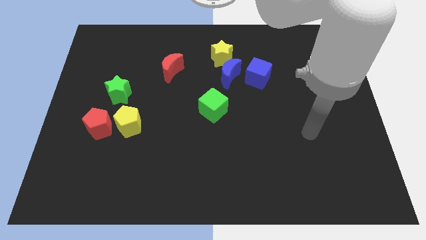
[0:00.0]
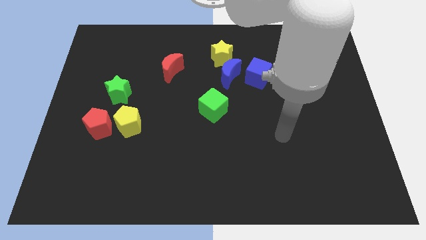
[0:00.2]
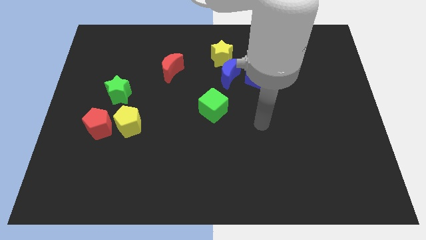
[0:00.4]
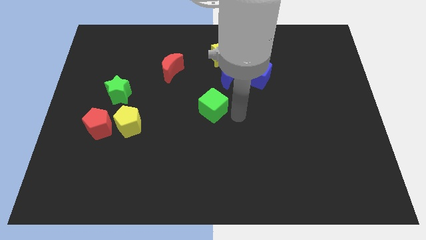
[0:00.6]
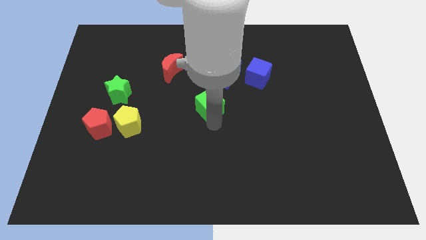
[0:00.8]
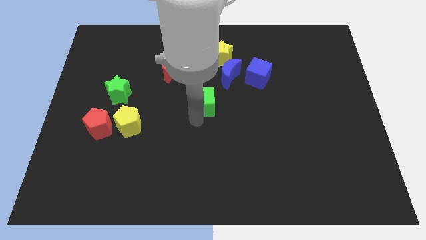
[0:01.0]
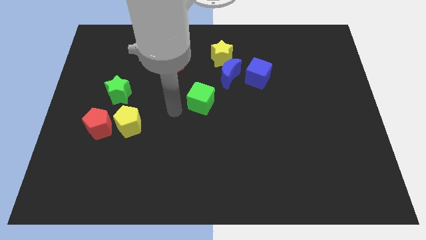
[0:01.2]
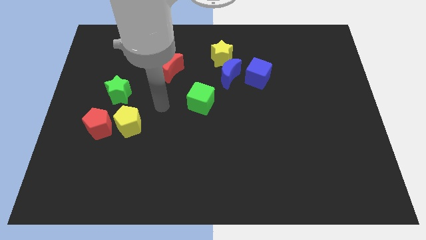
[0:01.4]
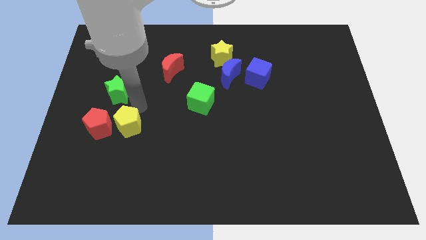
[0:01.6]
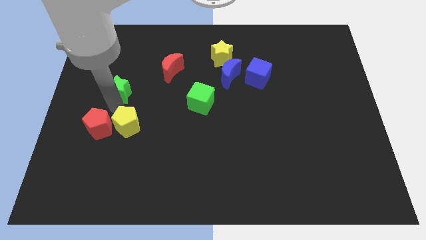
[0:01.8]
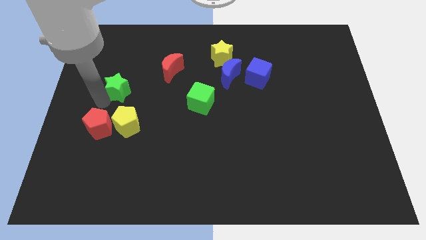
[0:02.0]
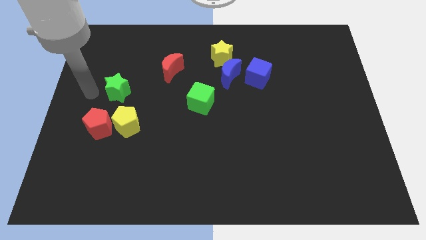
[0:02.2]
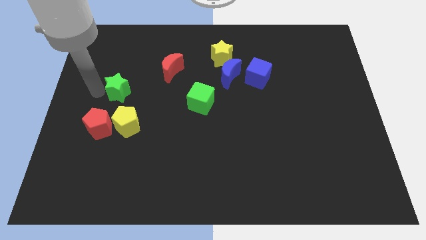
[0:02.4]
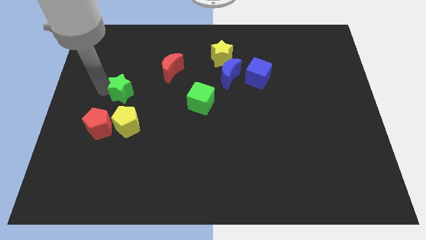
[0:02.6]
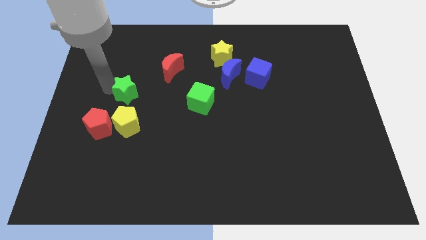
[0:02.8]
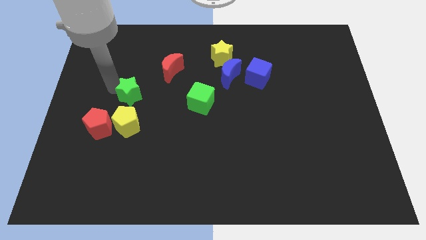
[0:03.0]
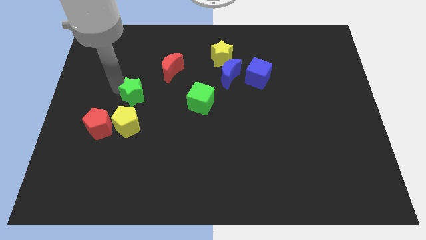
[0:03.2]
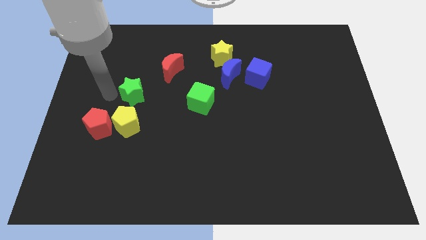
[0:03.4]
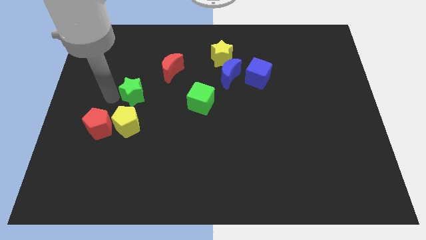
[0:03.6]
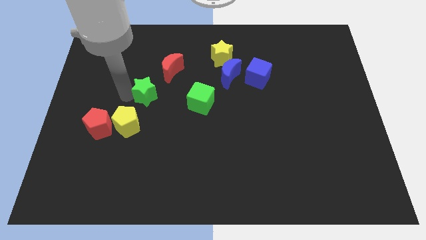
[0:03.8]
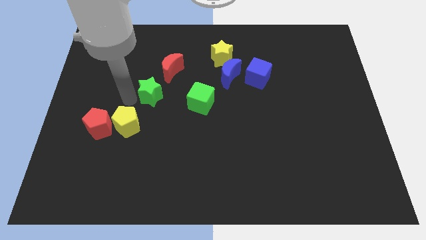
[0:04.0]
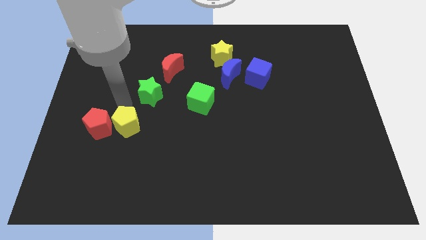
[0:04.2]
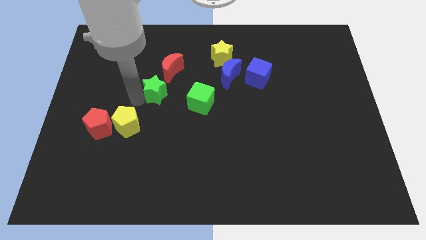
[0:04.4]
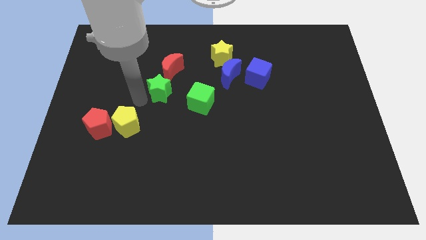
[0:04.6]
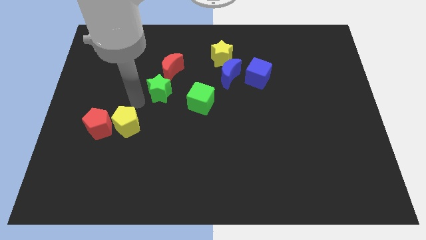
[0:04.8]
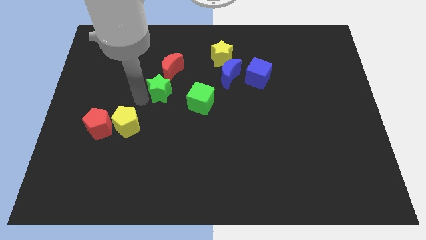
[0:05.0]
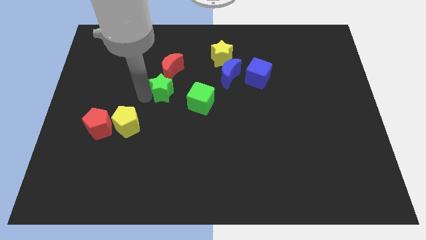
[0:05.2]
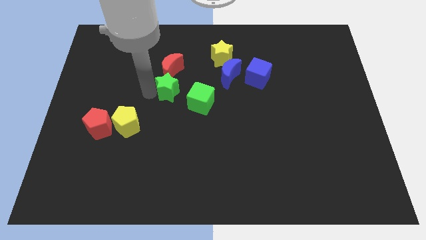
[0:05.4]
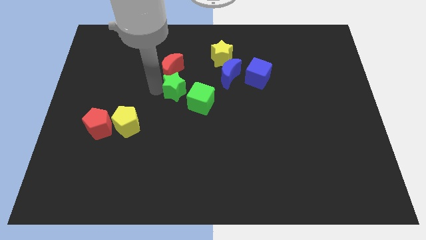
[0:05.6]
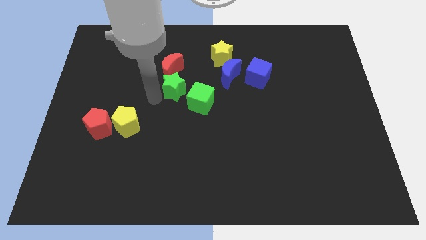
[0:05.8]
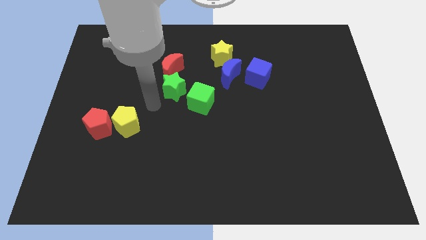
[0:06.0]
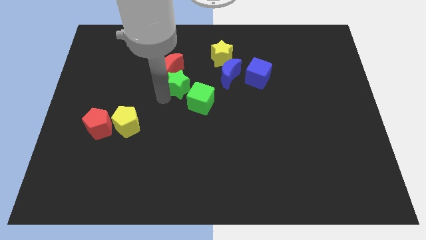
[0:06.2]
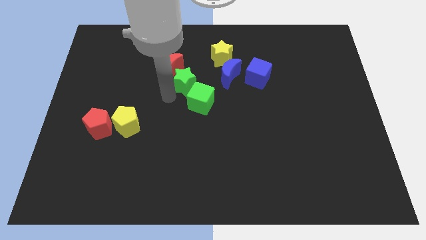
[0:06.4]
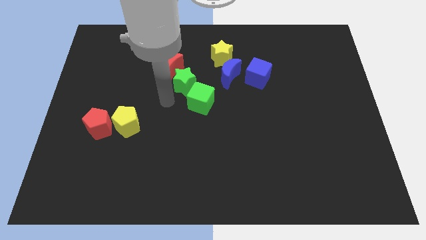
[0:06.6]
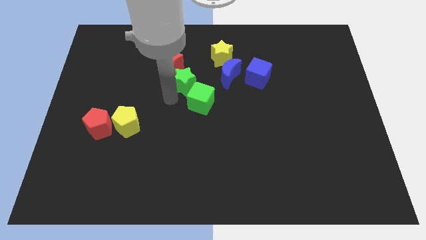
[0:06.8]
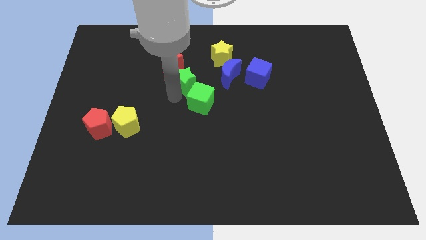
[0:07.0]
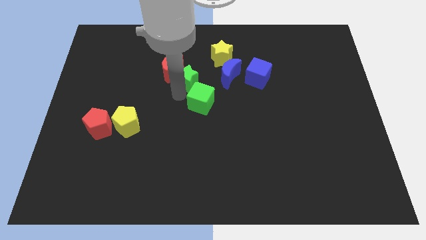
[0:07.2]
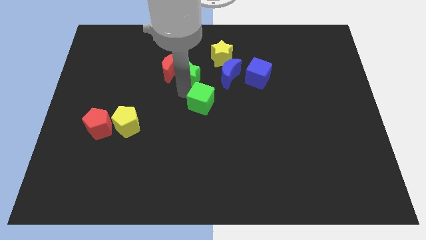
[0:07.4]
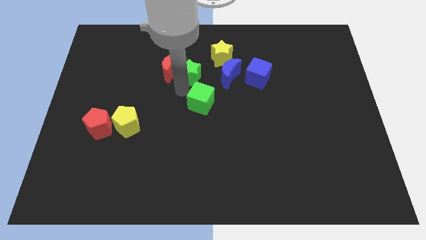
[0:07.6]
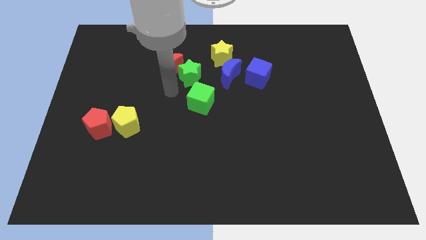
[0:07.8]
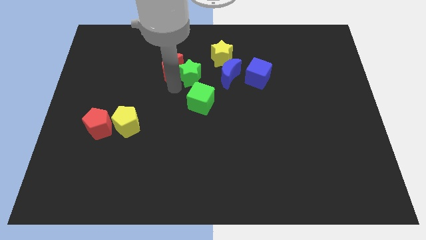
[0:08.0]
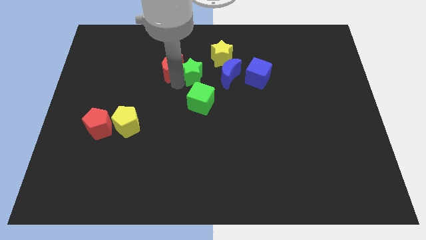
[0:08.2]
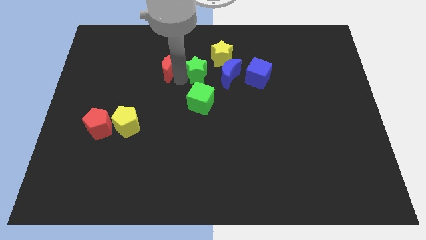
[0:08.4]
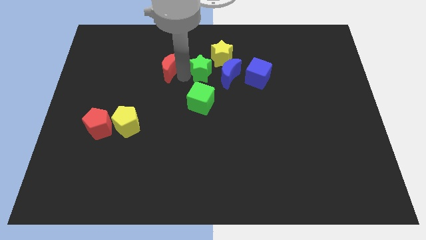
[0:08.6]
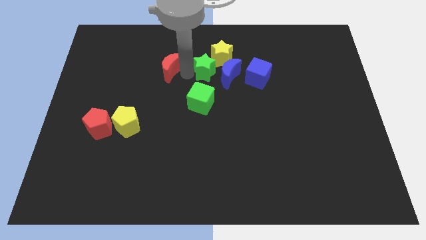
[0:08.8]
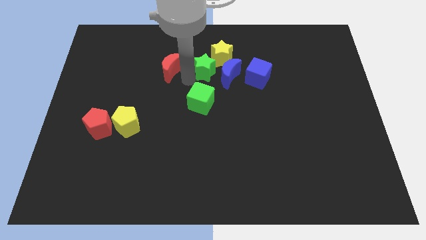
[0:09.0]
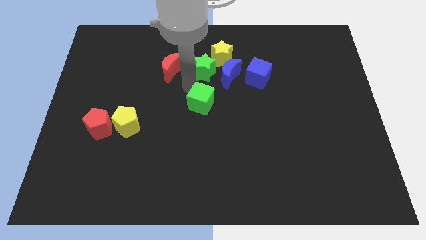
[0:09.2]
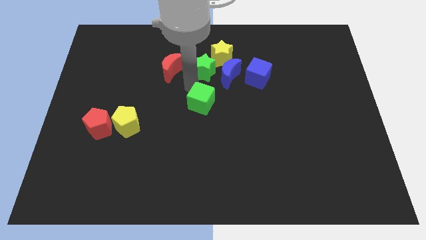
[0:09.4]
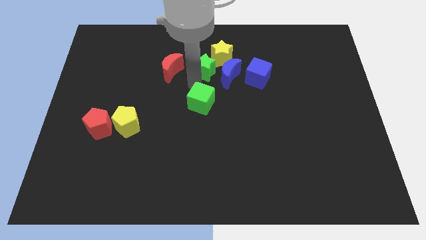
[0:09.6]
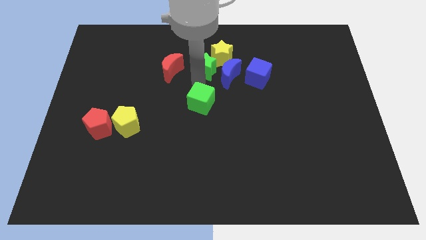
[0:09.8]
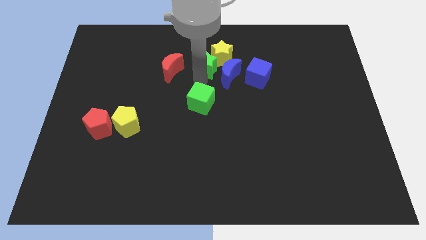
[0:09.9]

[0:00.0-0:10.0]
move the green star close to the yellow star

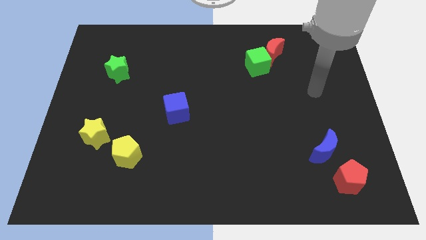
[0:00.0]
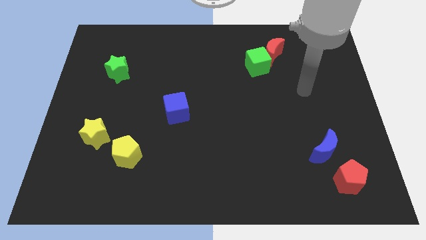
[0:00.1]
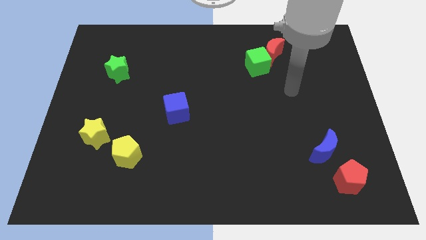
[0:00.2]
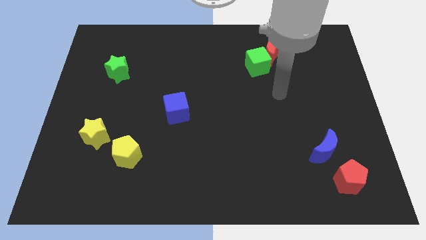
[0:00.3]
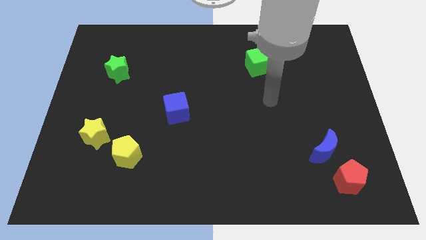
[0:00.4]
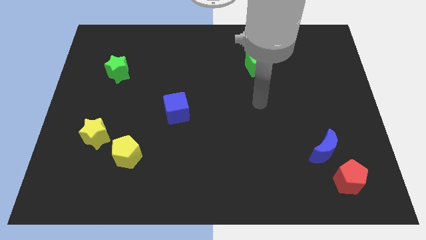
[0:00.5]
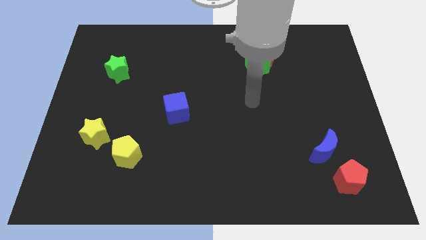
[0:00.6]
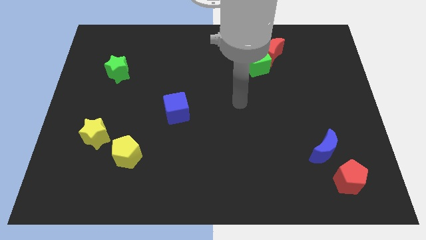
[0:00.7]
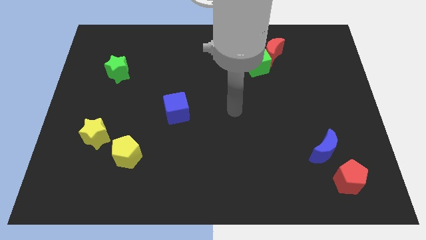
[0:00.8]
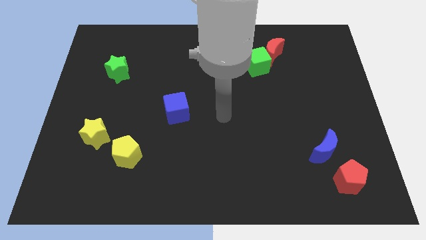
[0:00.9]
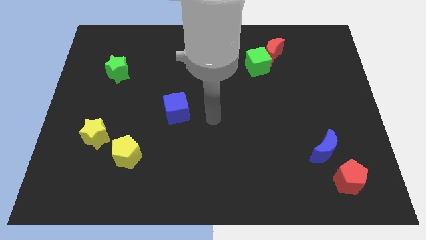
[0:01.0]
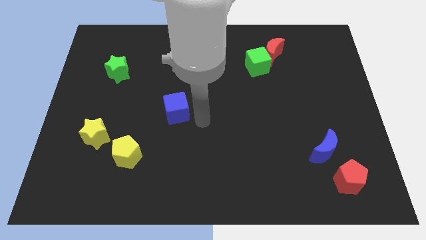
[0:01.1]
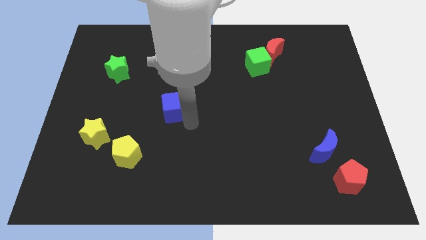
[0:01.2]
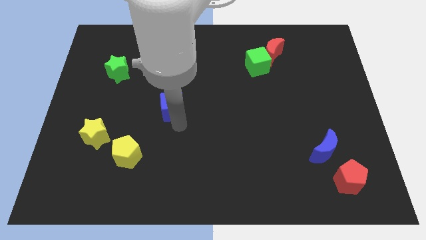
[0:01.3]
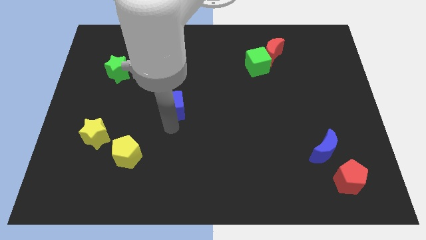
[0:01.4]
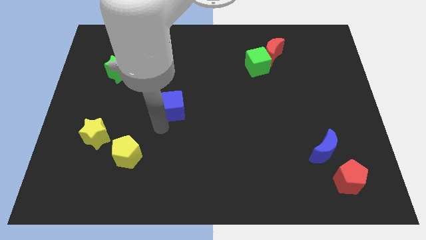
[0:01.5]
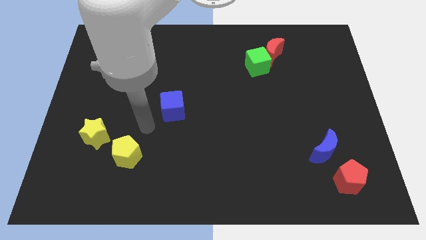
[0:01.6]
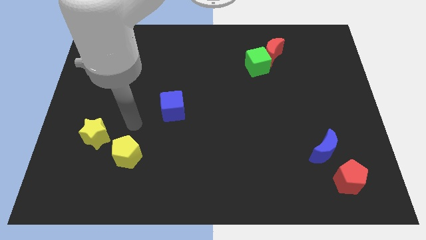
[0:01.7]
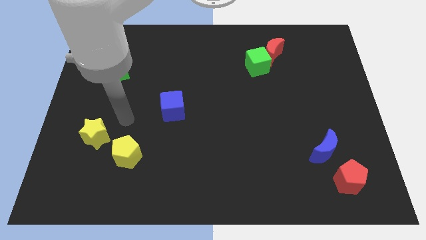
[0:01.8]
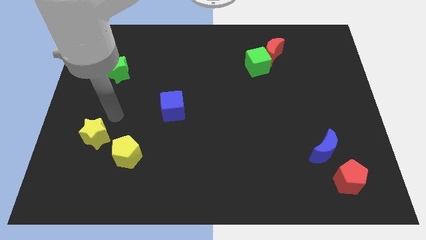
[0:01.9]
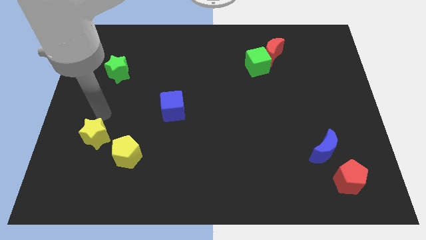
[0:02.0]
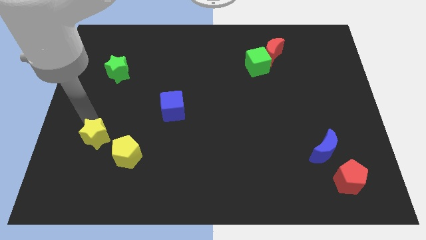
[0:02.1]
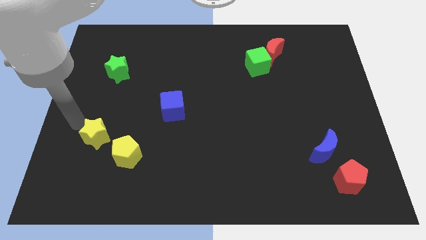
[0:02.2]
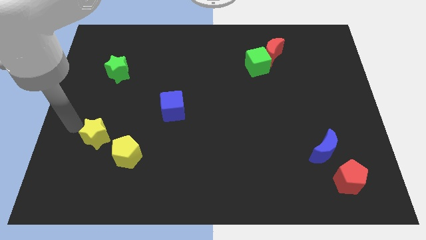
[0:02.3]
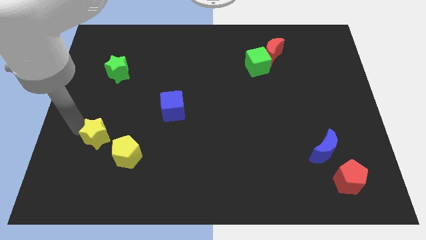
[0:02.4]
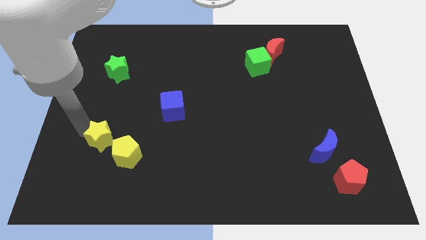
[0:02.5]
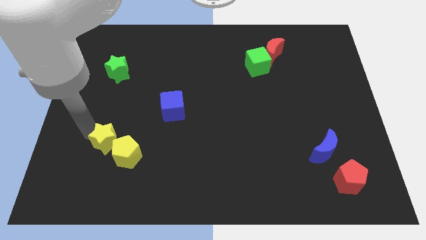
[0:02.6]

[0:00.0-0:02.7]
slide the yellow star towards the yellow pentagon
